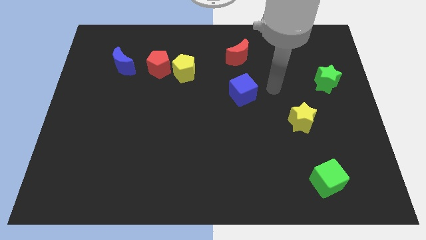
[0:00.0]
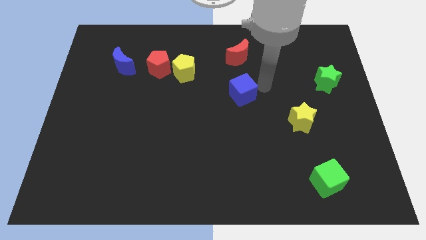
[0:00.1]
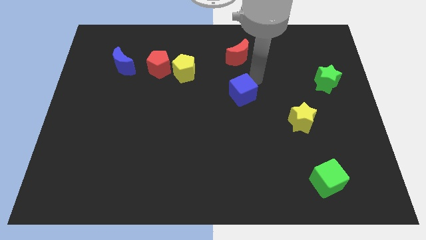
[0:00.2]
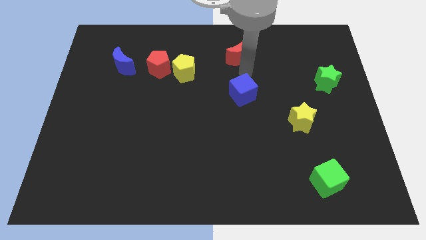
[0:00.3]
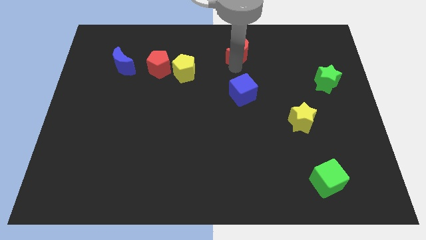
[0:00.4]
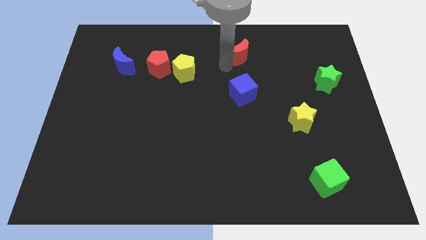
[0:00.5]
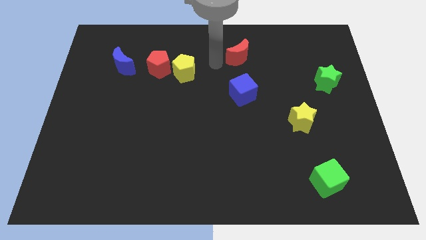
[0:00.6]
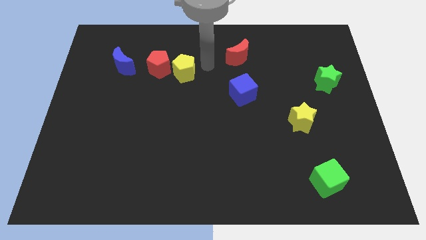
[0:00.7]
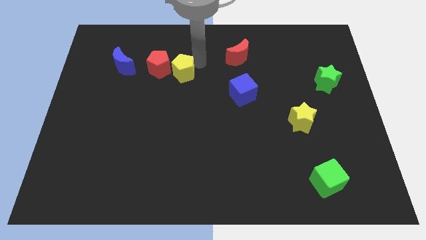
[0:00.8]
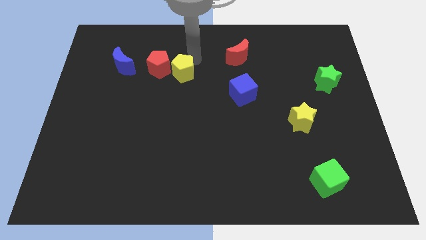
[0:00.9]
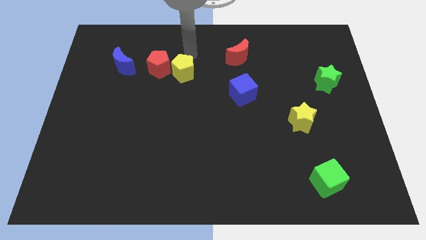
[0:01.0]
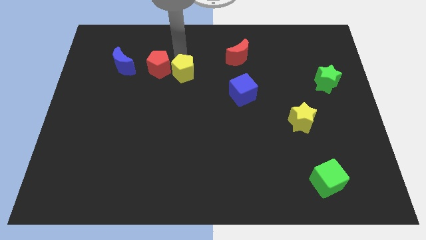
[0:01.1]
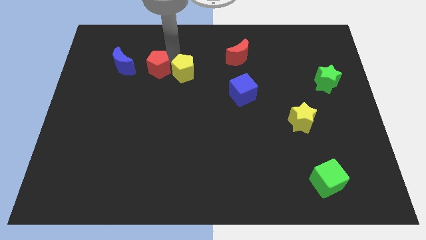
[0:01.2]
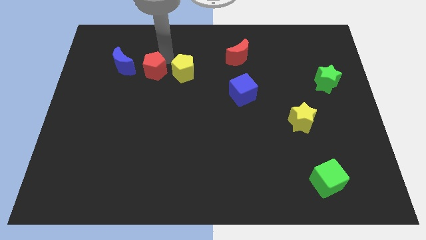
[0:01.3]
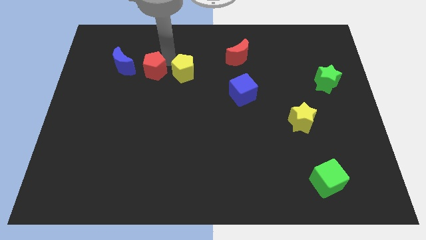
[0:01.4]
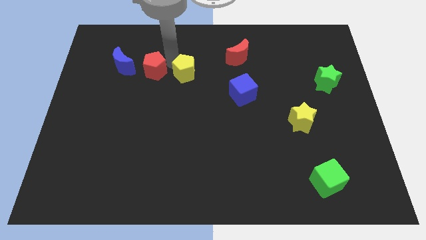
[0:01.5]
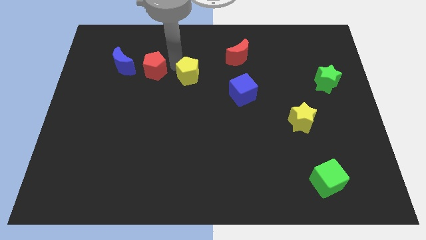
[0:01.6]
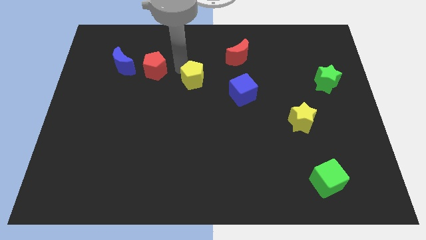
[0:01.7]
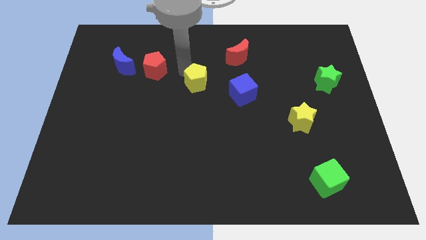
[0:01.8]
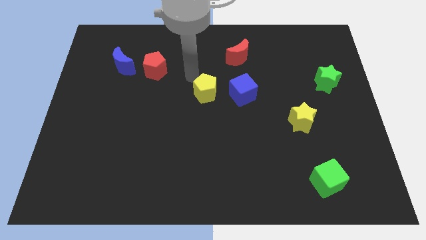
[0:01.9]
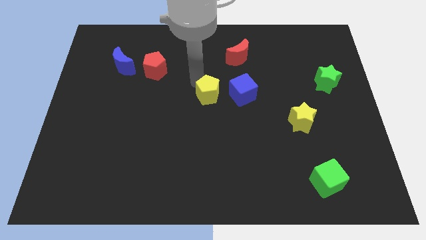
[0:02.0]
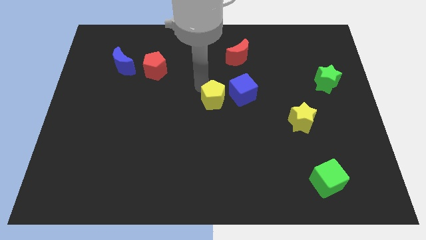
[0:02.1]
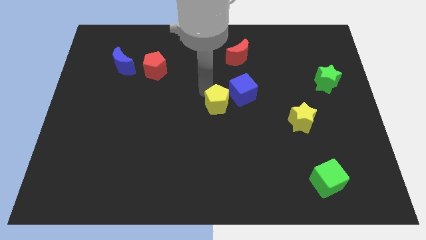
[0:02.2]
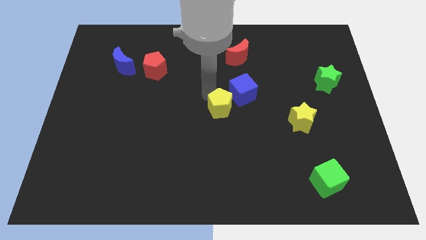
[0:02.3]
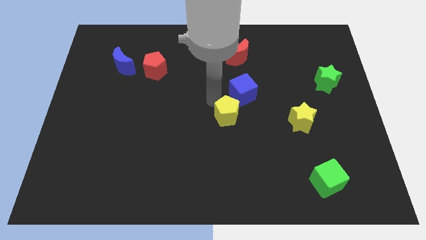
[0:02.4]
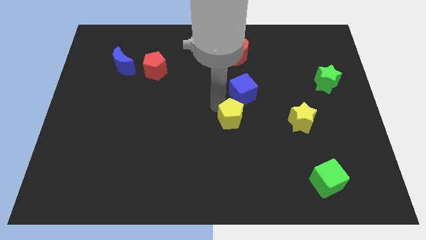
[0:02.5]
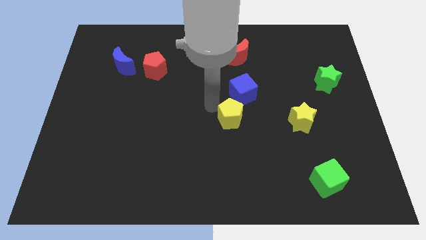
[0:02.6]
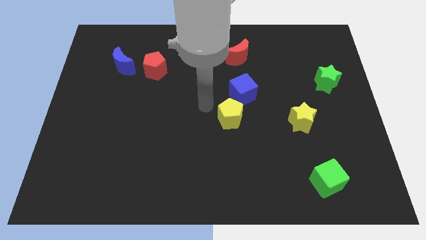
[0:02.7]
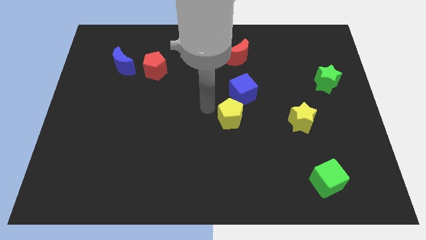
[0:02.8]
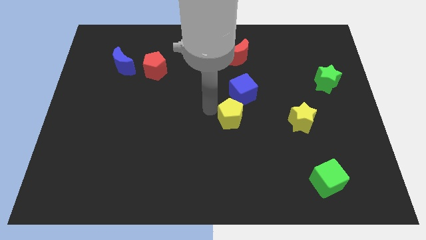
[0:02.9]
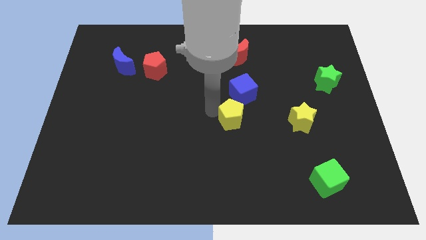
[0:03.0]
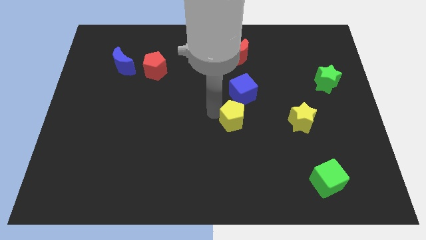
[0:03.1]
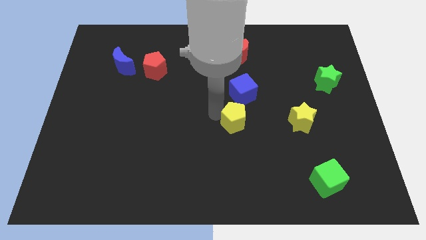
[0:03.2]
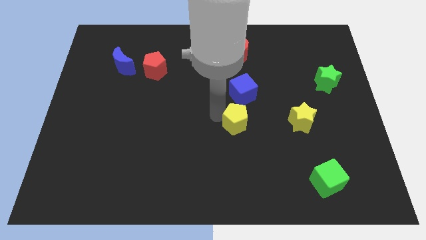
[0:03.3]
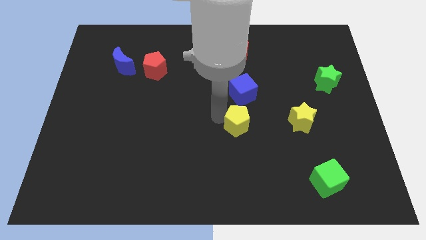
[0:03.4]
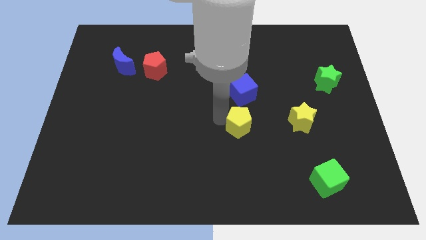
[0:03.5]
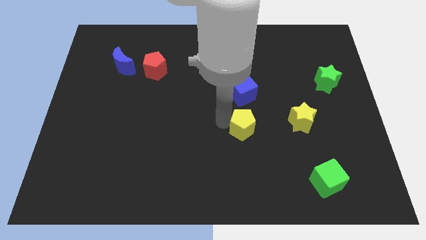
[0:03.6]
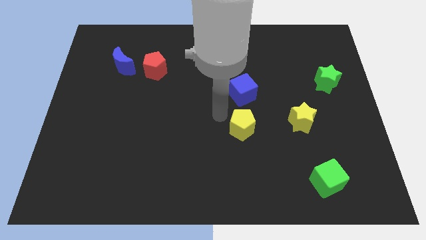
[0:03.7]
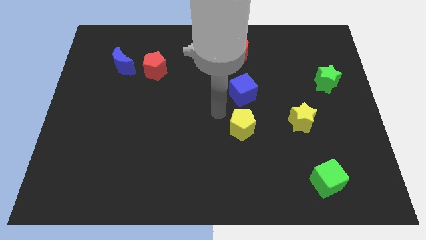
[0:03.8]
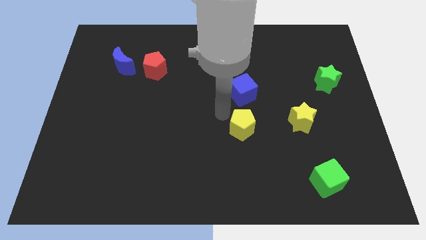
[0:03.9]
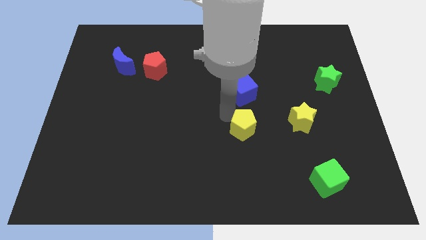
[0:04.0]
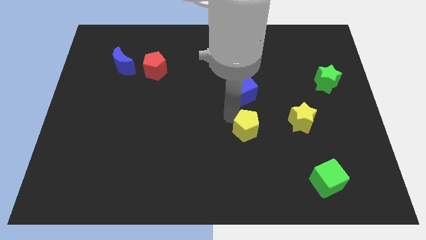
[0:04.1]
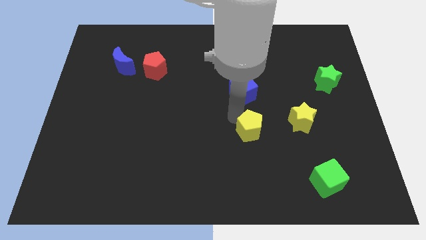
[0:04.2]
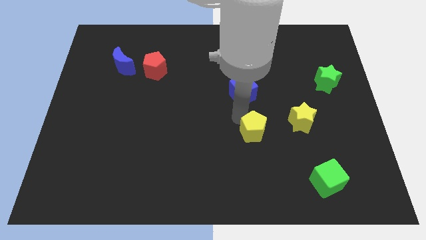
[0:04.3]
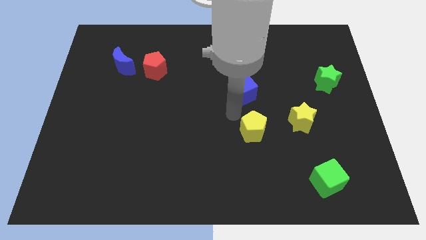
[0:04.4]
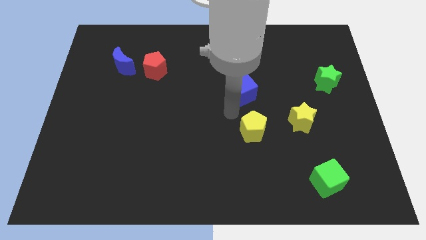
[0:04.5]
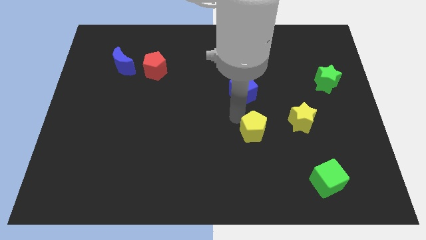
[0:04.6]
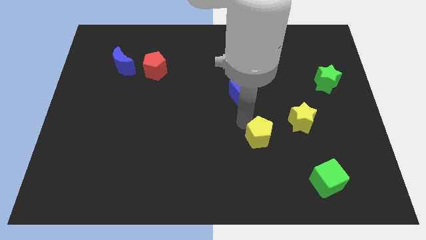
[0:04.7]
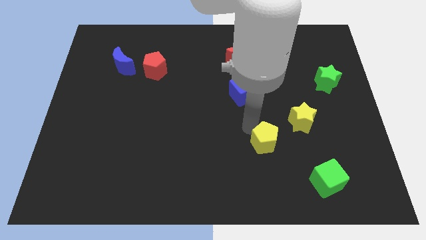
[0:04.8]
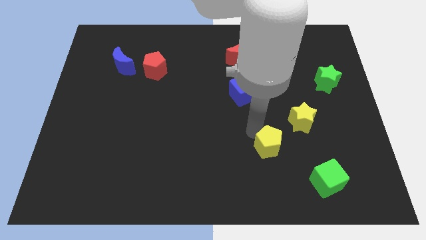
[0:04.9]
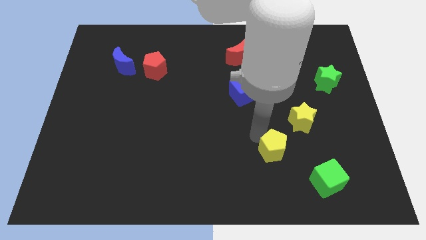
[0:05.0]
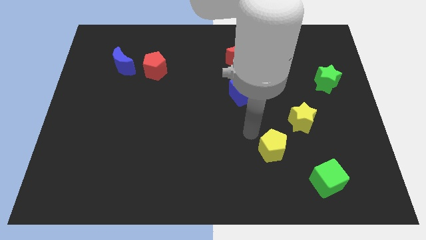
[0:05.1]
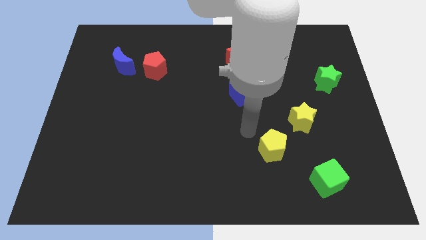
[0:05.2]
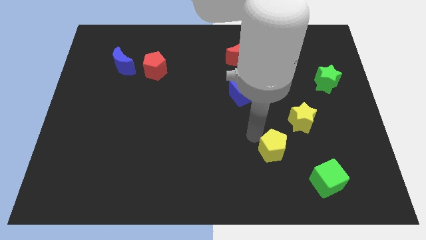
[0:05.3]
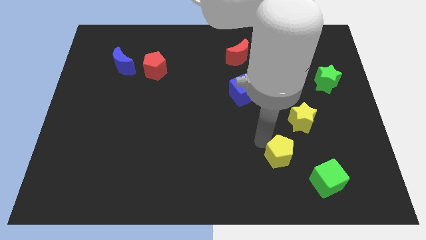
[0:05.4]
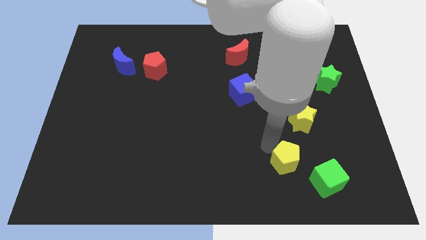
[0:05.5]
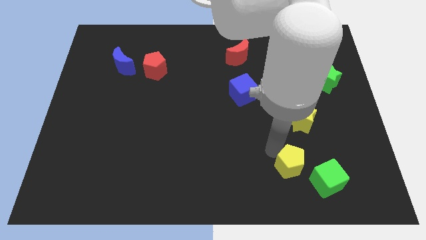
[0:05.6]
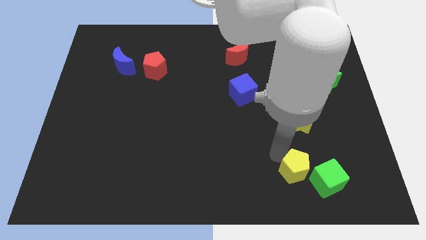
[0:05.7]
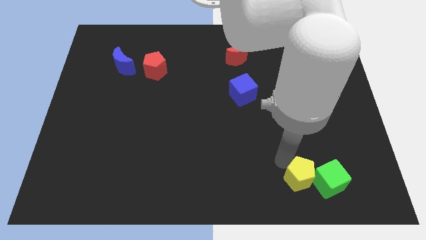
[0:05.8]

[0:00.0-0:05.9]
put the yellow pentagon towards the green cube

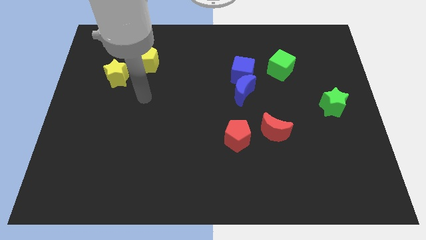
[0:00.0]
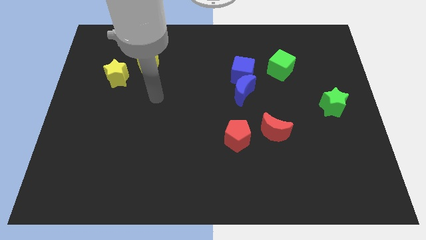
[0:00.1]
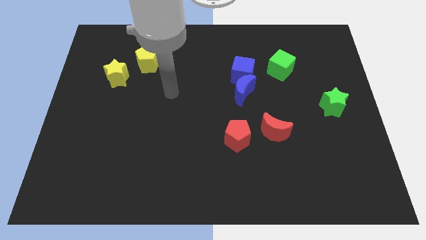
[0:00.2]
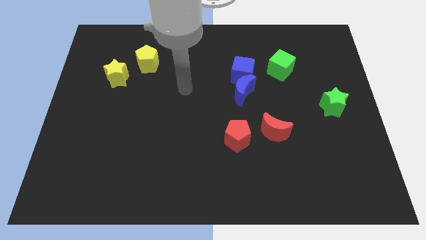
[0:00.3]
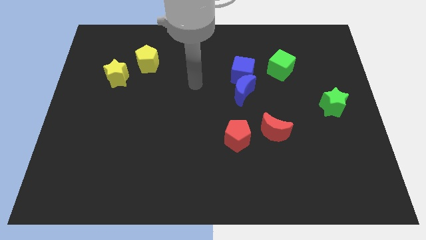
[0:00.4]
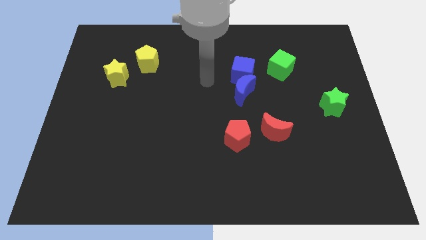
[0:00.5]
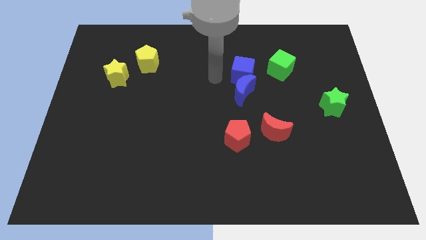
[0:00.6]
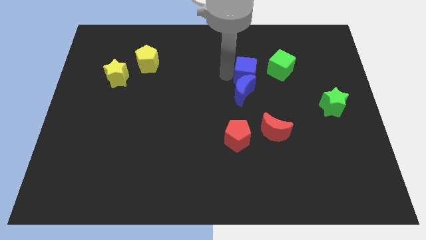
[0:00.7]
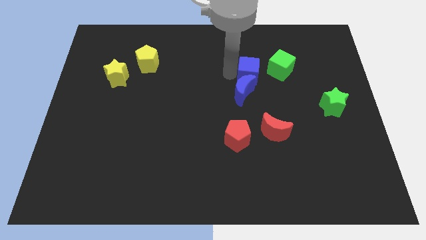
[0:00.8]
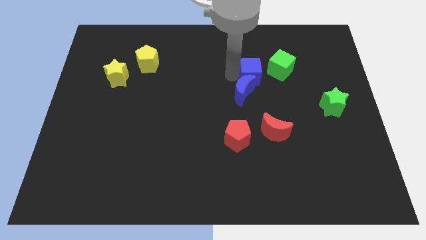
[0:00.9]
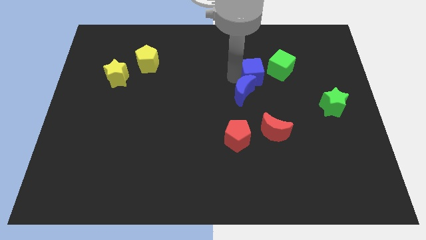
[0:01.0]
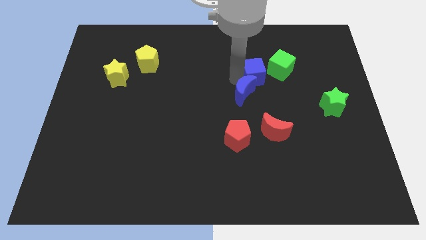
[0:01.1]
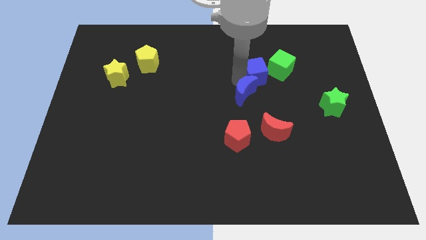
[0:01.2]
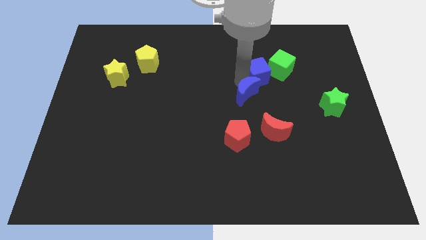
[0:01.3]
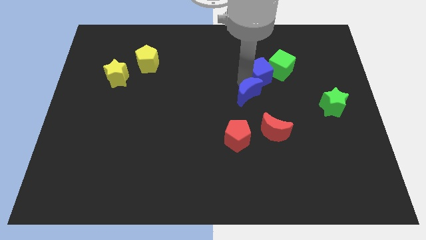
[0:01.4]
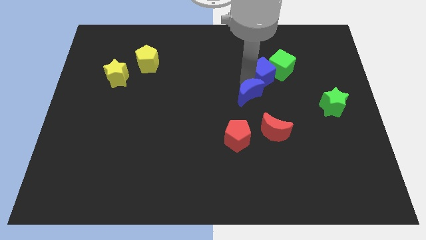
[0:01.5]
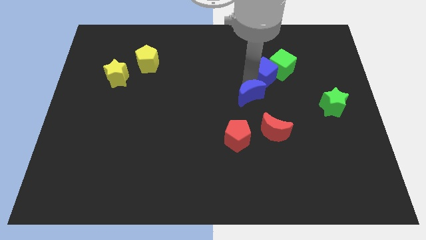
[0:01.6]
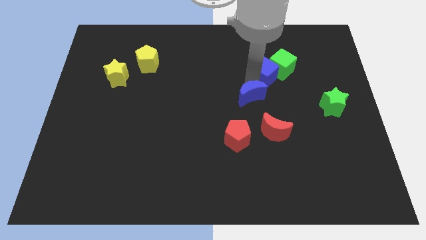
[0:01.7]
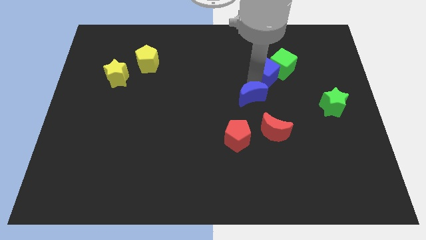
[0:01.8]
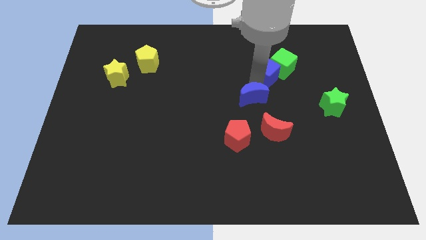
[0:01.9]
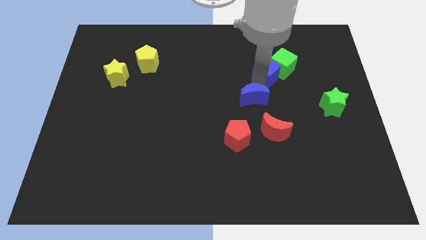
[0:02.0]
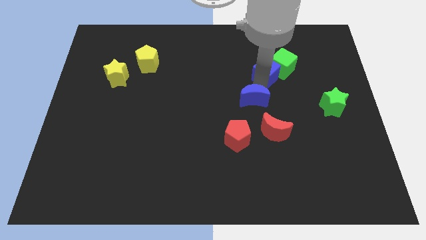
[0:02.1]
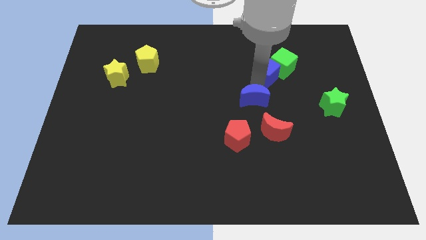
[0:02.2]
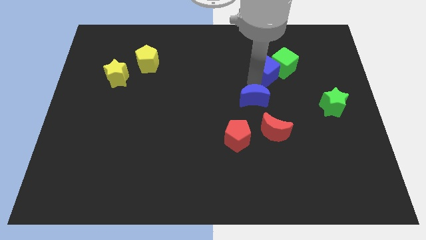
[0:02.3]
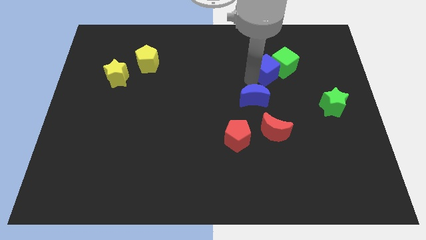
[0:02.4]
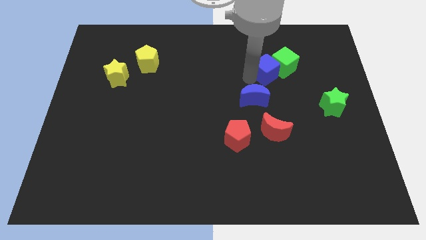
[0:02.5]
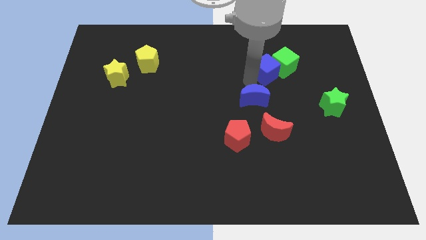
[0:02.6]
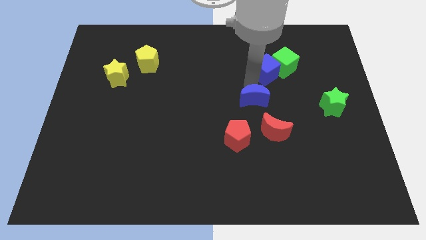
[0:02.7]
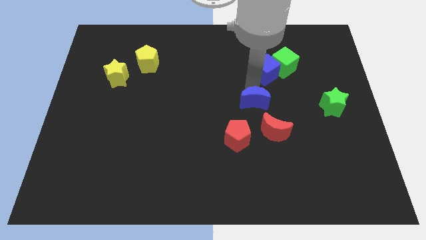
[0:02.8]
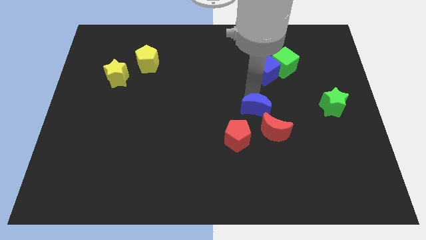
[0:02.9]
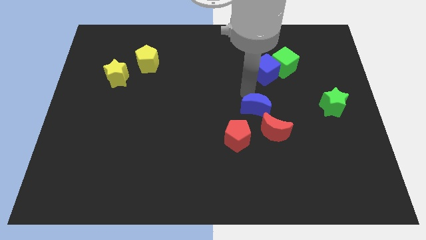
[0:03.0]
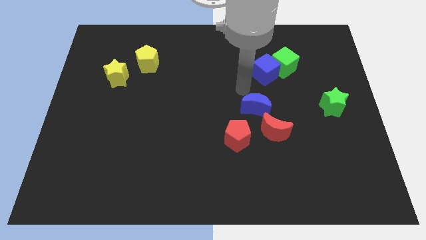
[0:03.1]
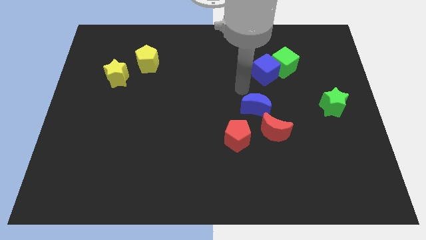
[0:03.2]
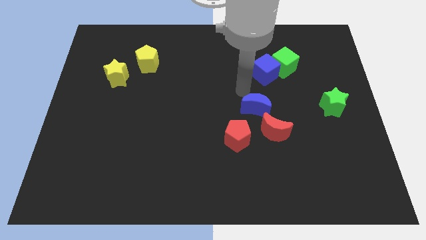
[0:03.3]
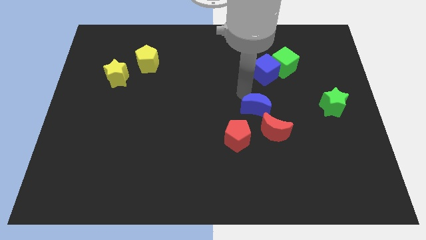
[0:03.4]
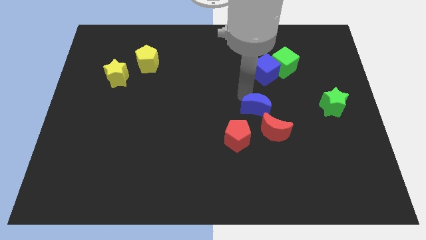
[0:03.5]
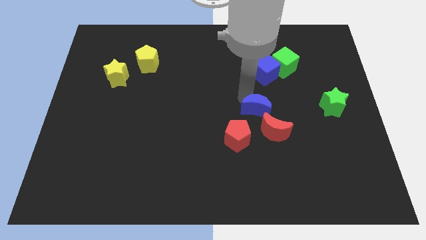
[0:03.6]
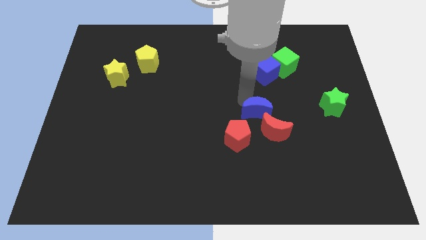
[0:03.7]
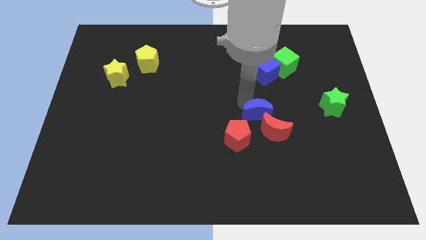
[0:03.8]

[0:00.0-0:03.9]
slide the blue moon next to the red moon
